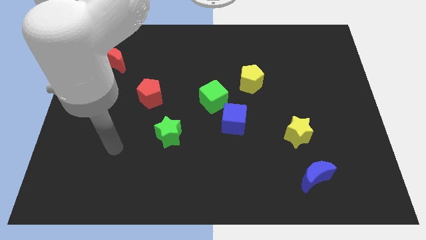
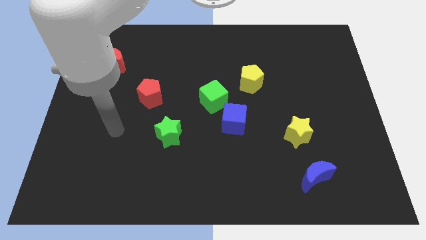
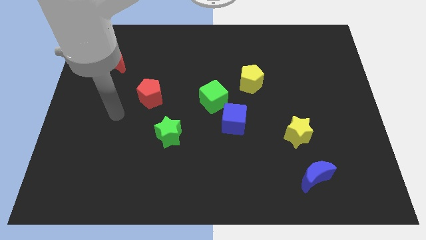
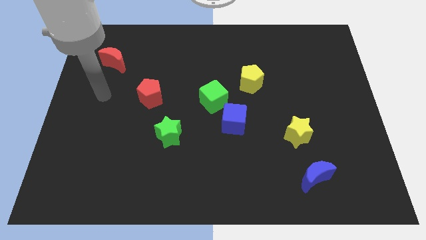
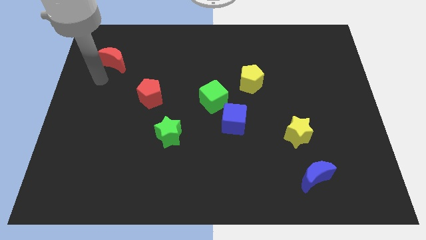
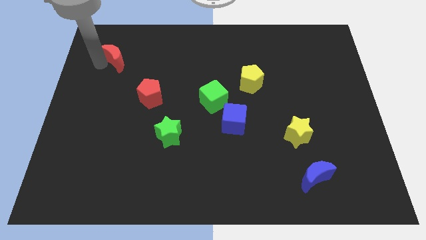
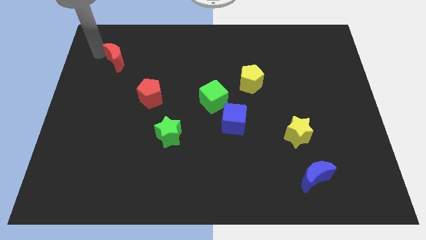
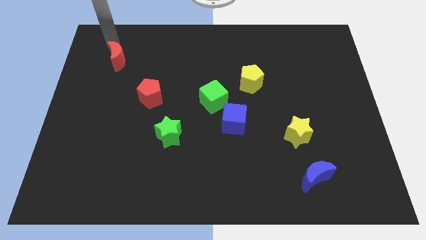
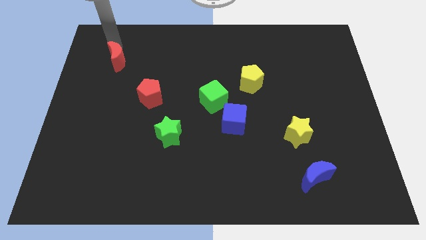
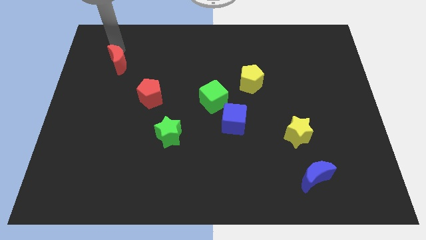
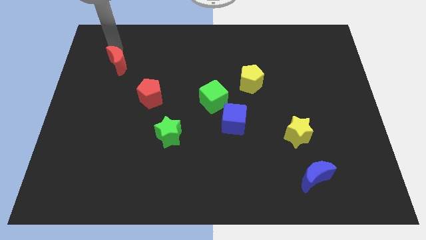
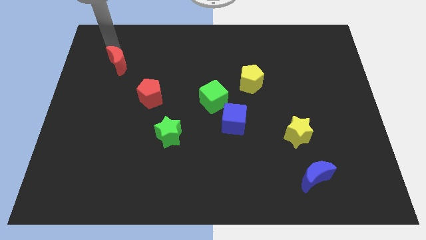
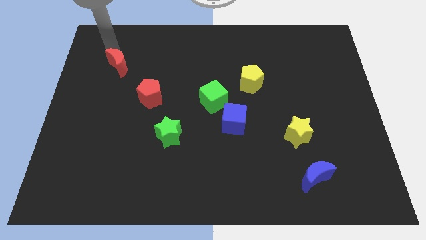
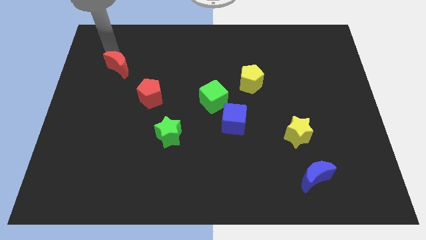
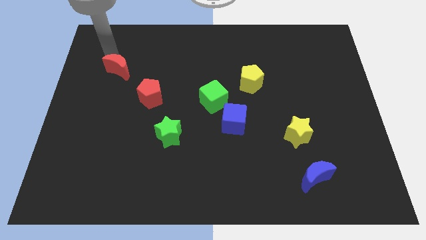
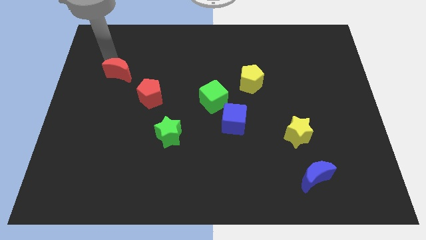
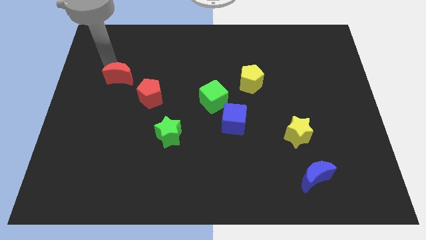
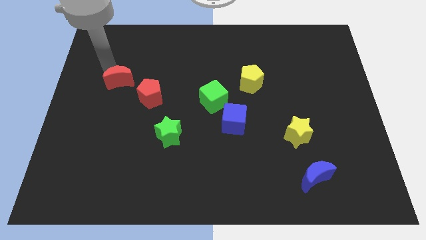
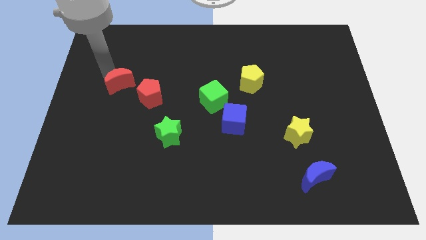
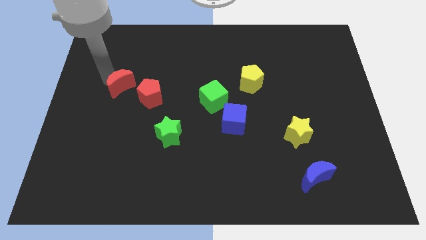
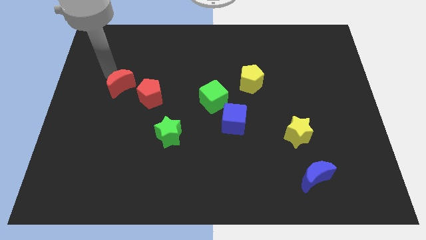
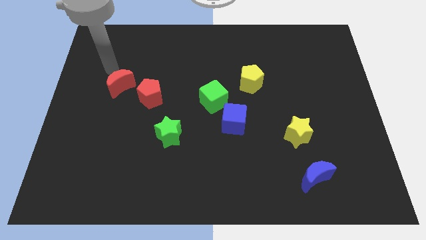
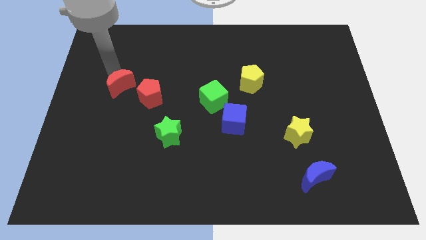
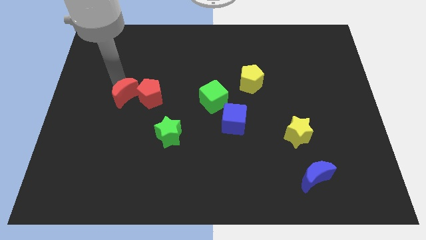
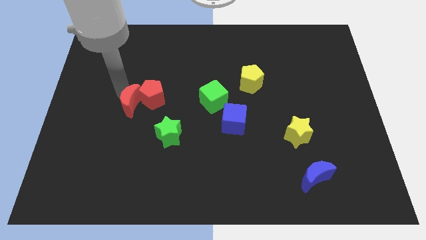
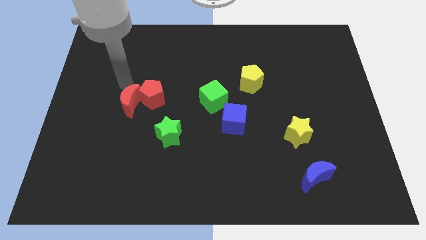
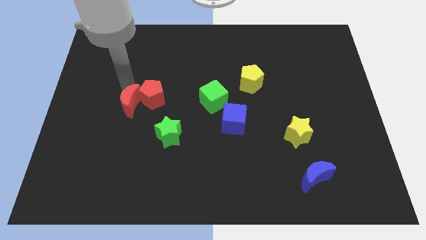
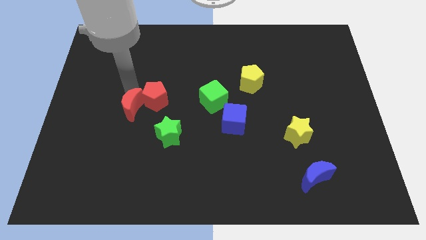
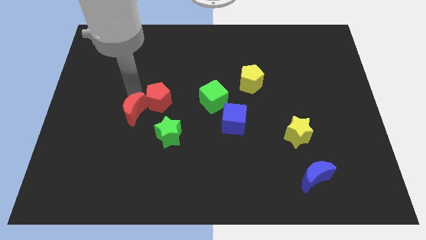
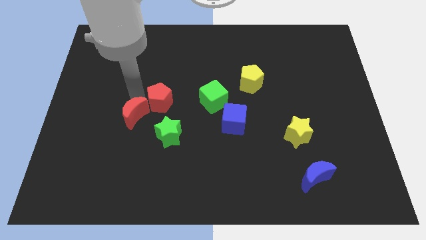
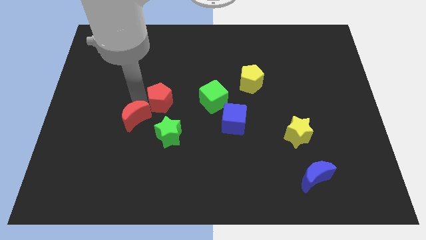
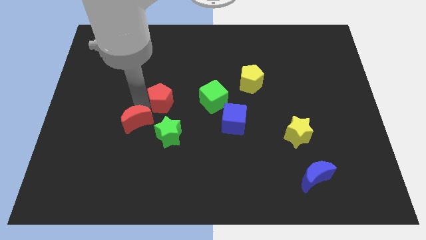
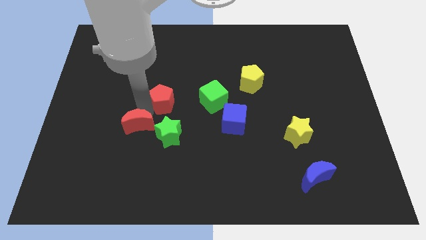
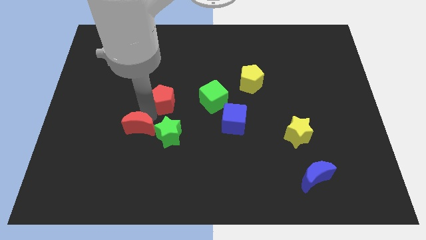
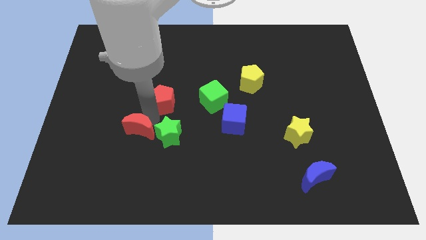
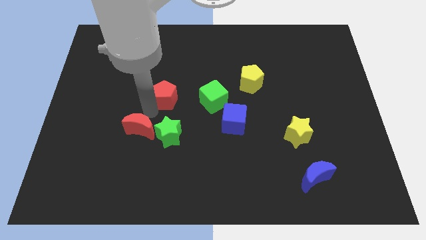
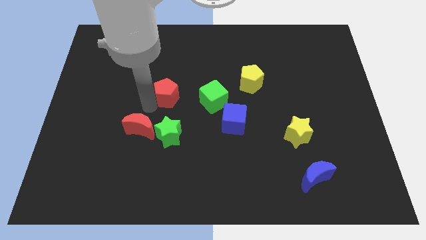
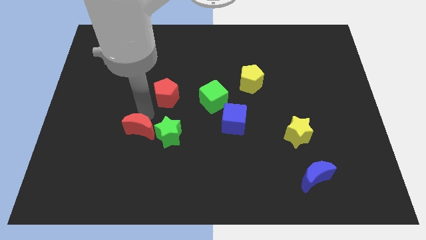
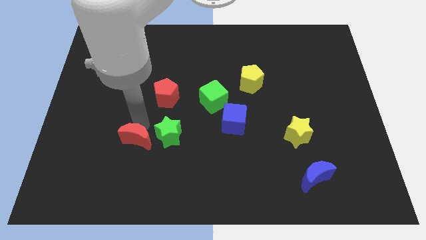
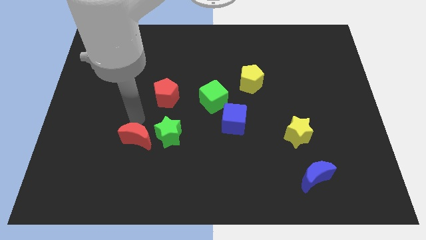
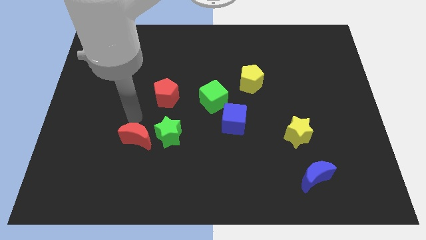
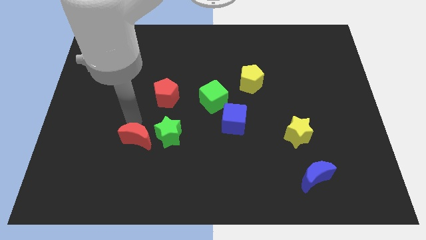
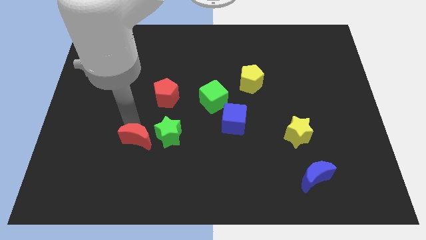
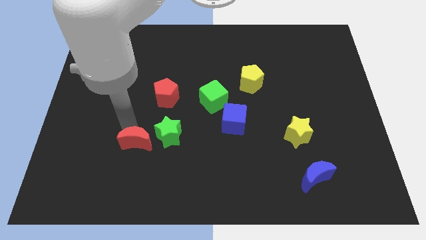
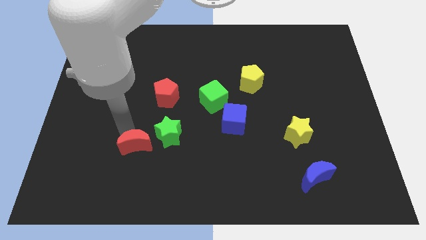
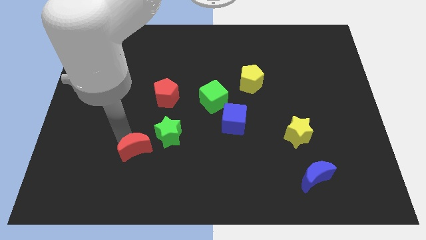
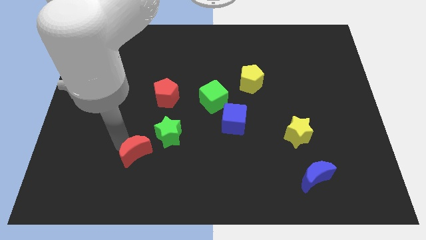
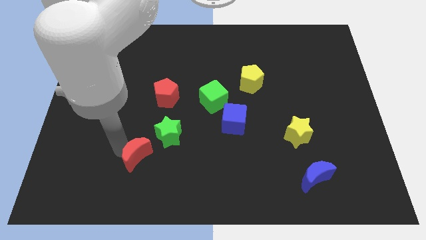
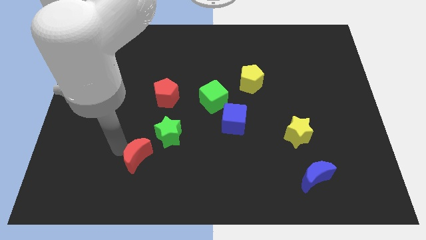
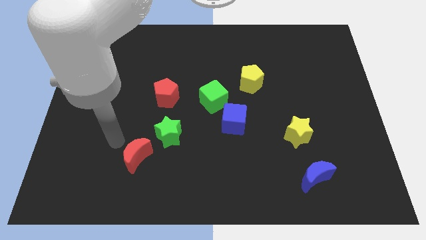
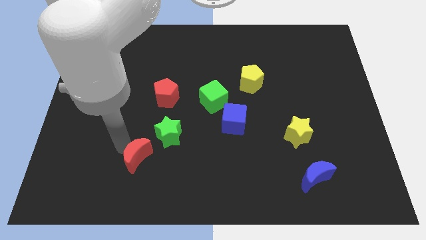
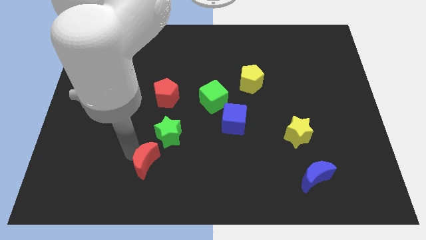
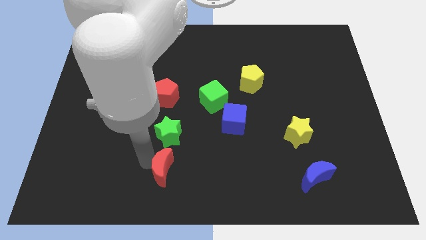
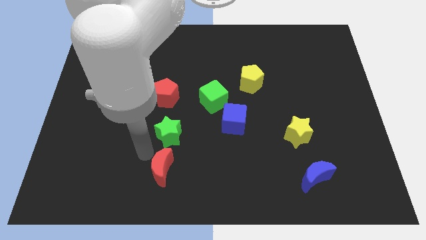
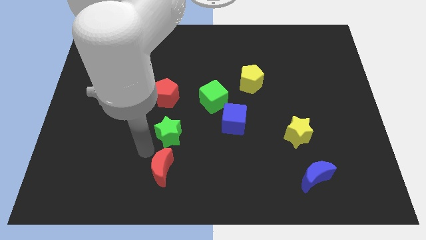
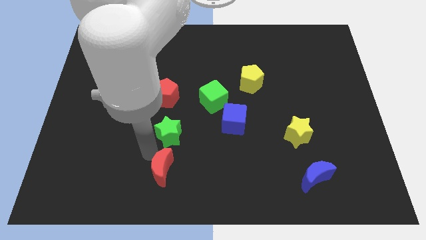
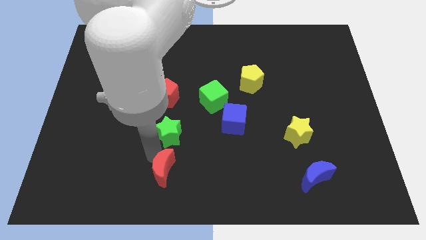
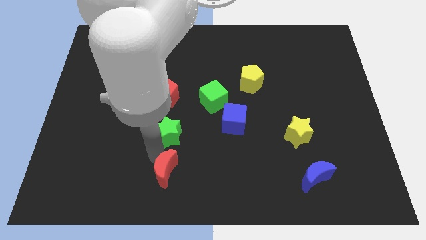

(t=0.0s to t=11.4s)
move the red moon to the bottom side
